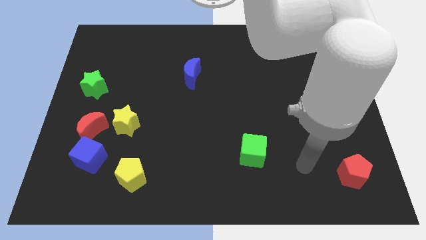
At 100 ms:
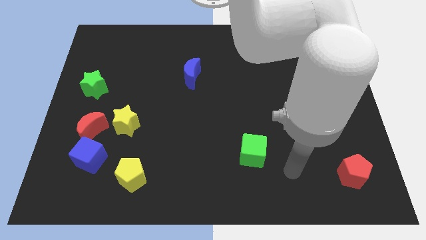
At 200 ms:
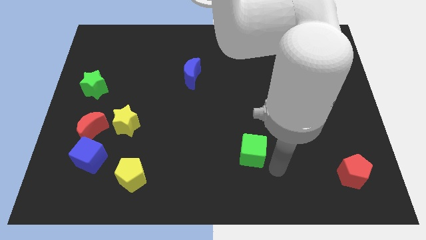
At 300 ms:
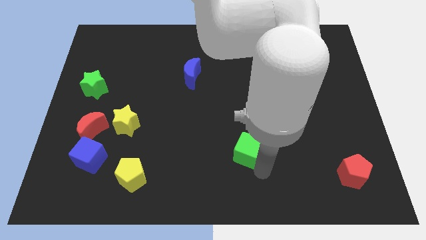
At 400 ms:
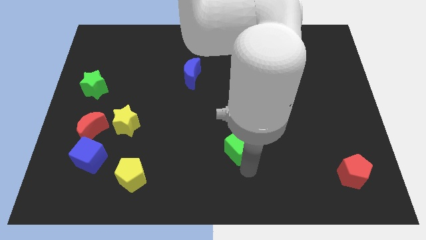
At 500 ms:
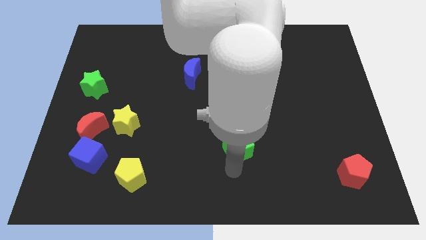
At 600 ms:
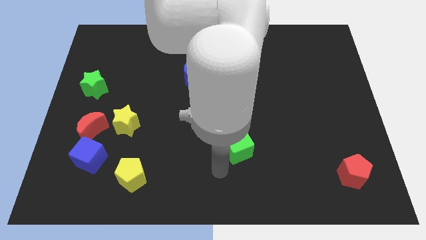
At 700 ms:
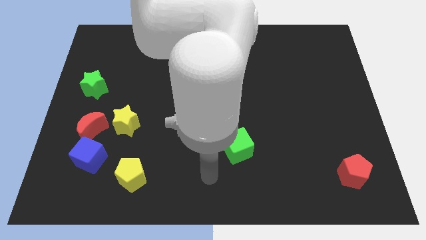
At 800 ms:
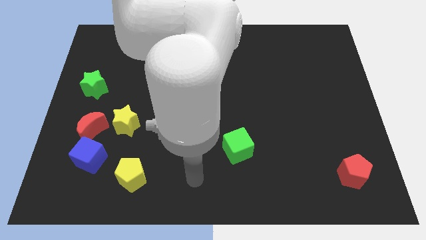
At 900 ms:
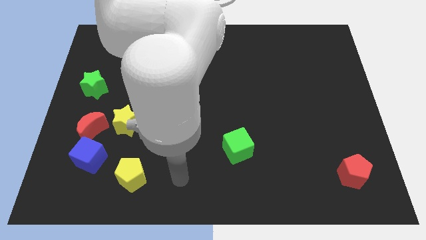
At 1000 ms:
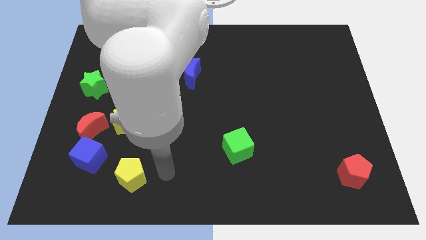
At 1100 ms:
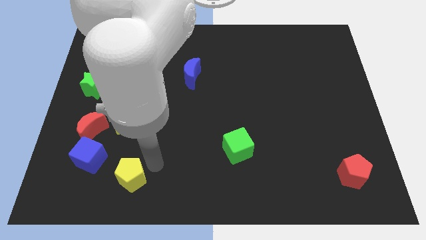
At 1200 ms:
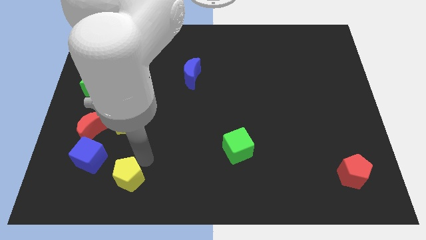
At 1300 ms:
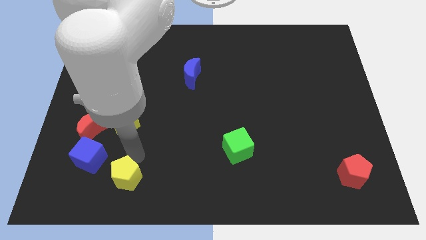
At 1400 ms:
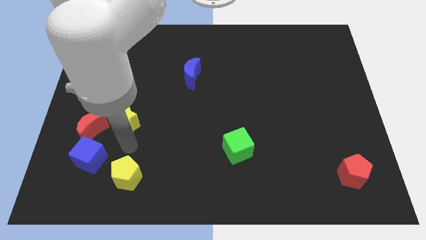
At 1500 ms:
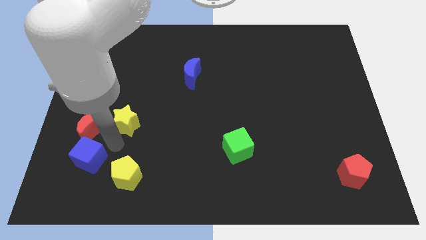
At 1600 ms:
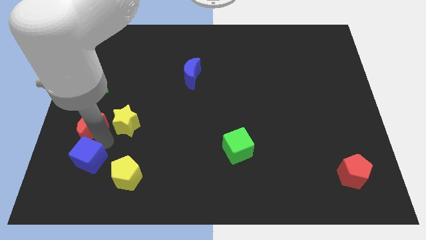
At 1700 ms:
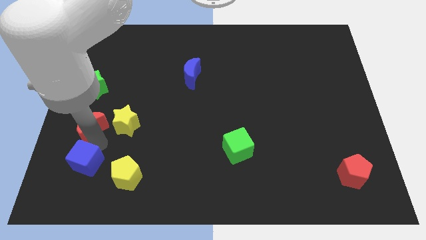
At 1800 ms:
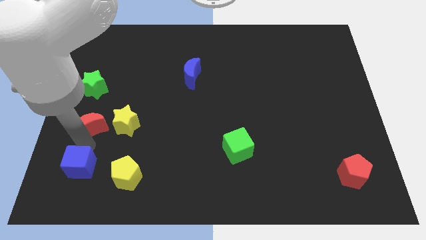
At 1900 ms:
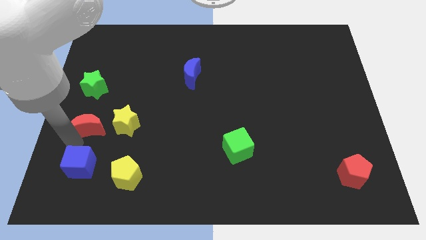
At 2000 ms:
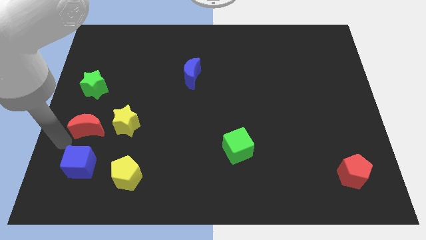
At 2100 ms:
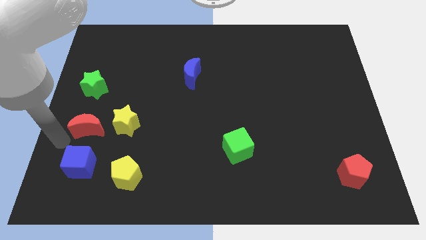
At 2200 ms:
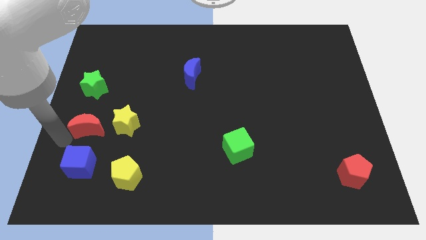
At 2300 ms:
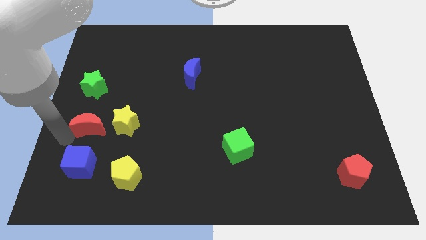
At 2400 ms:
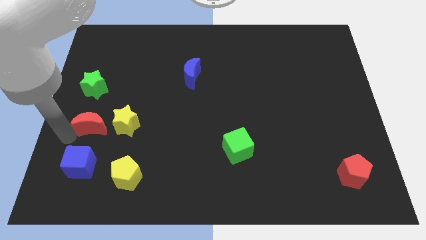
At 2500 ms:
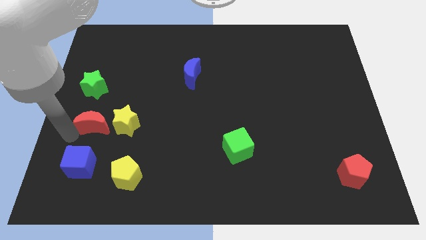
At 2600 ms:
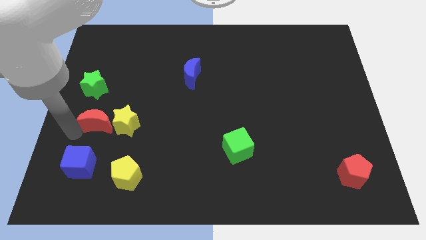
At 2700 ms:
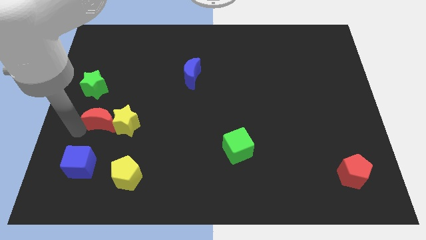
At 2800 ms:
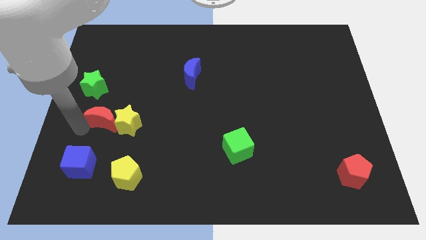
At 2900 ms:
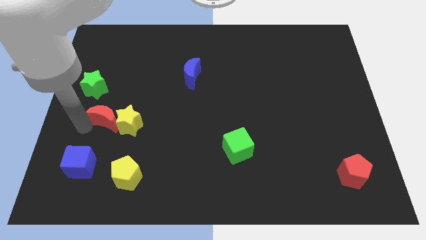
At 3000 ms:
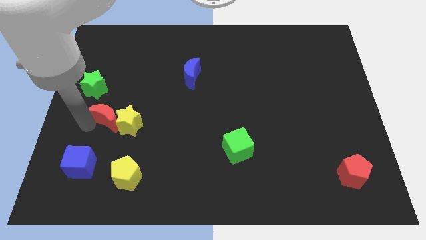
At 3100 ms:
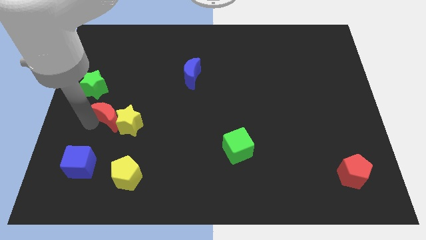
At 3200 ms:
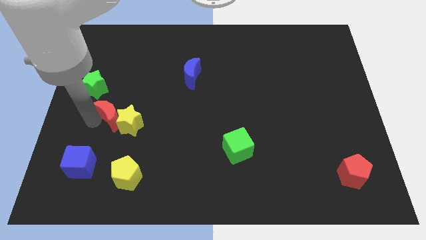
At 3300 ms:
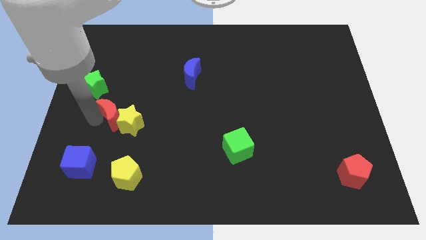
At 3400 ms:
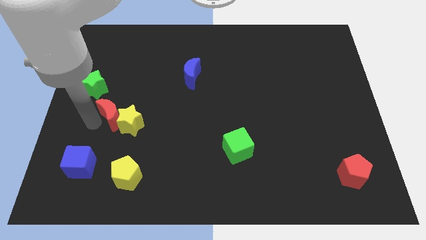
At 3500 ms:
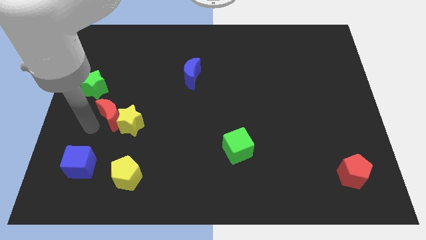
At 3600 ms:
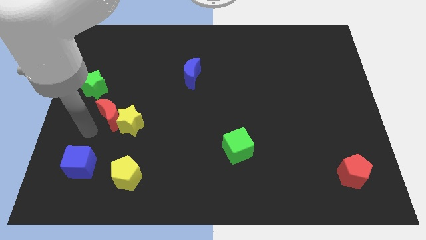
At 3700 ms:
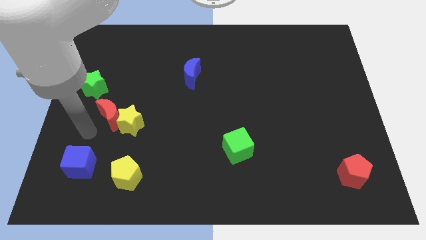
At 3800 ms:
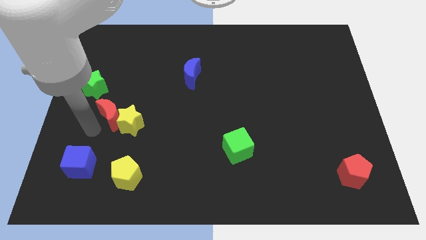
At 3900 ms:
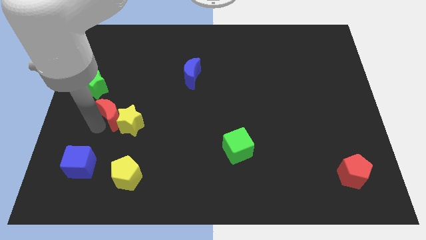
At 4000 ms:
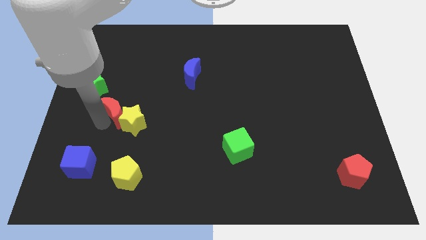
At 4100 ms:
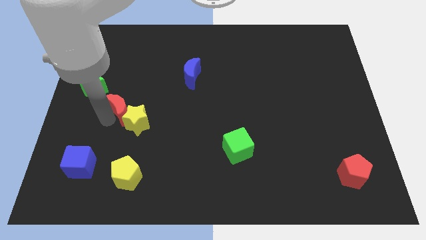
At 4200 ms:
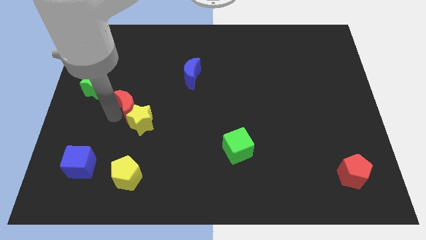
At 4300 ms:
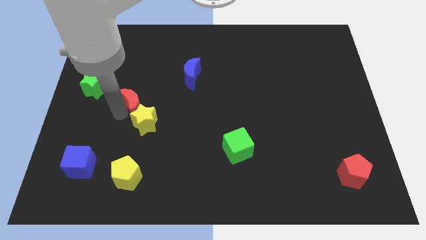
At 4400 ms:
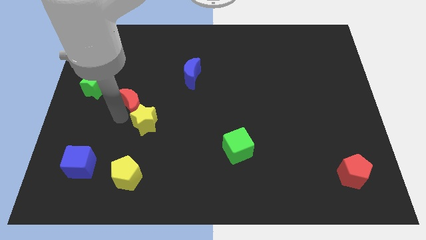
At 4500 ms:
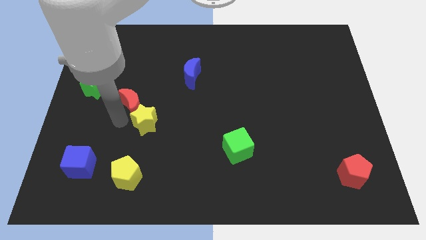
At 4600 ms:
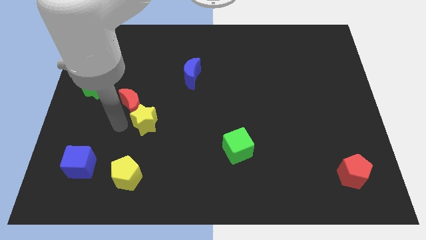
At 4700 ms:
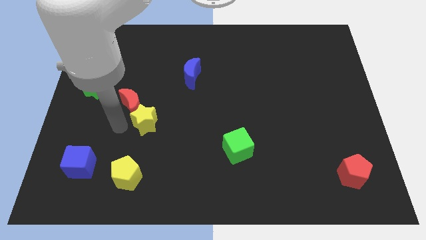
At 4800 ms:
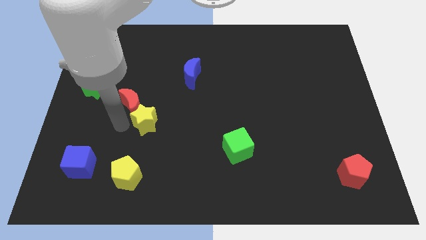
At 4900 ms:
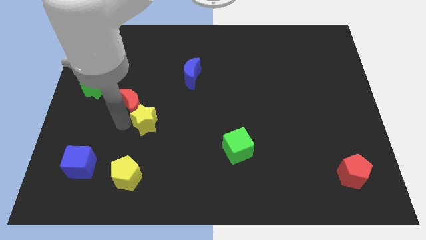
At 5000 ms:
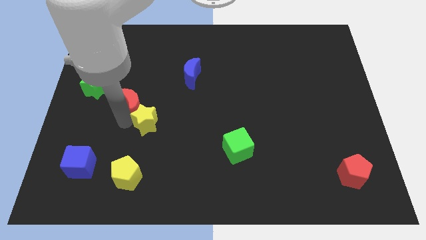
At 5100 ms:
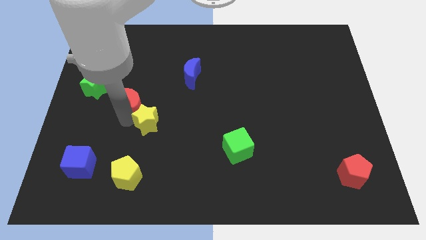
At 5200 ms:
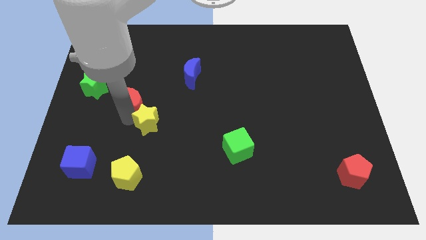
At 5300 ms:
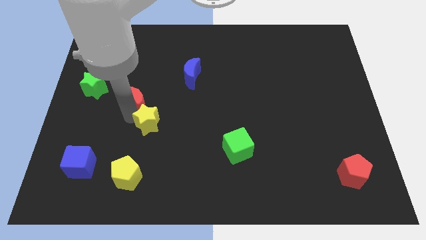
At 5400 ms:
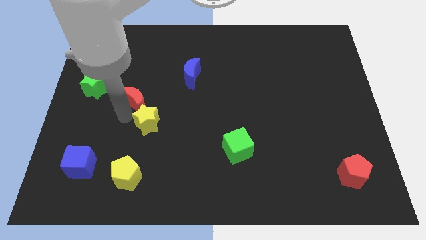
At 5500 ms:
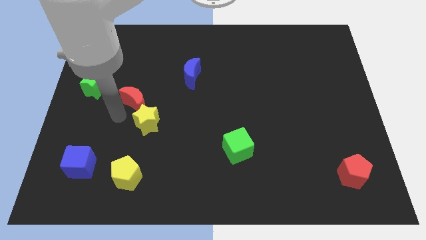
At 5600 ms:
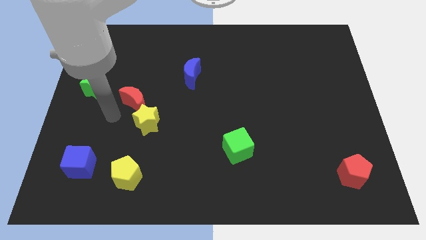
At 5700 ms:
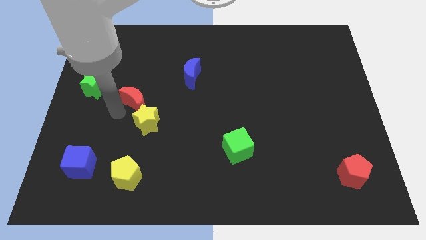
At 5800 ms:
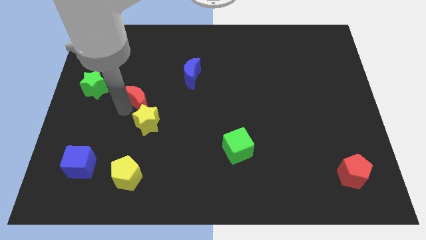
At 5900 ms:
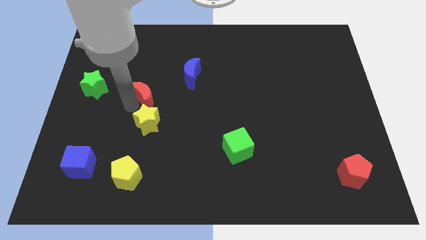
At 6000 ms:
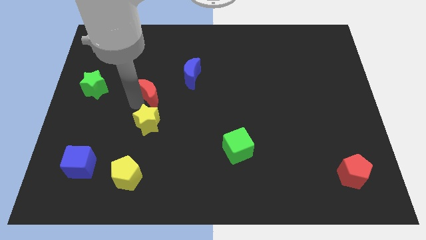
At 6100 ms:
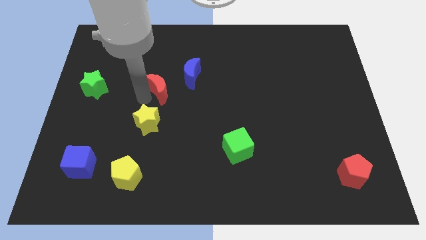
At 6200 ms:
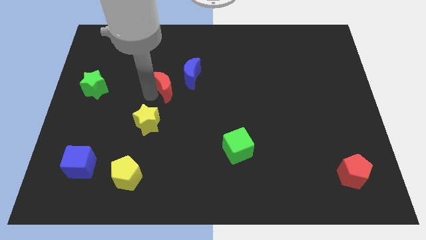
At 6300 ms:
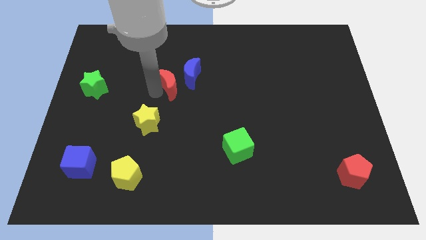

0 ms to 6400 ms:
put the red moon next to the blue moon

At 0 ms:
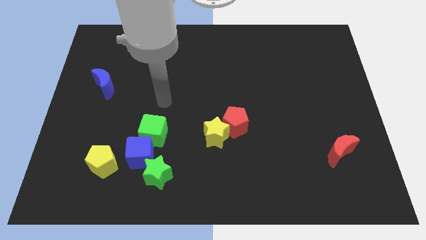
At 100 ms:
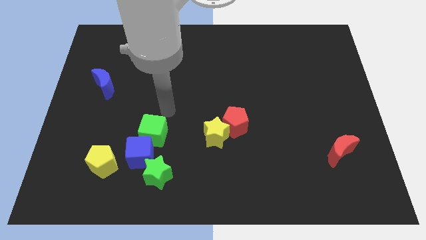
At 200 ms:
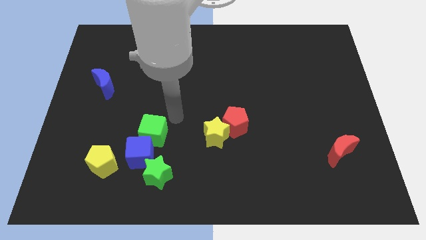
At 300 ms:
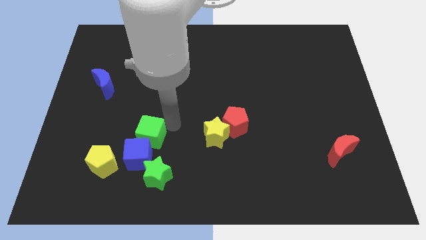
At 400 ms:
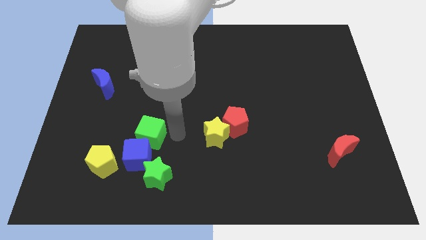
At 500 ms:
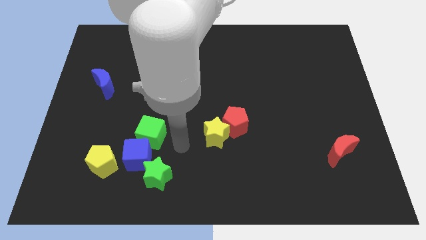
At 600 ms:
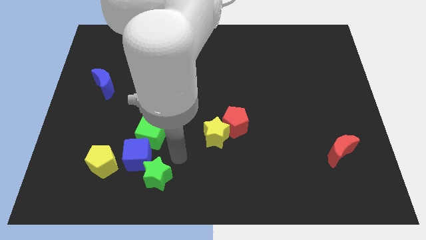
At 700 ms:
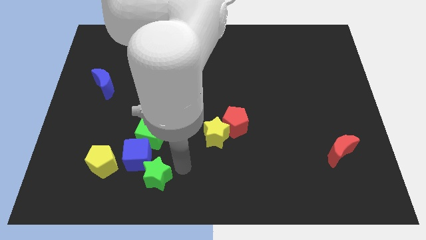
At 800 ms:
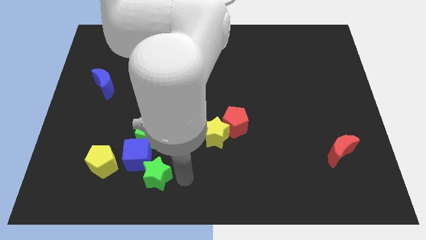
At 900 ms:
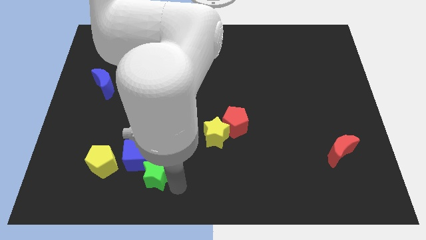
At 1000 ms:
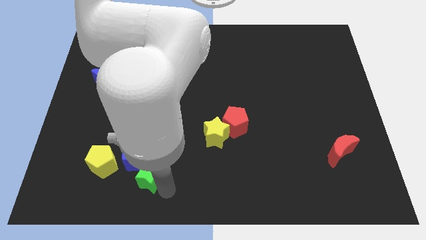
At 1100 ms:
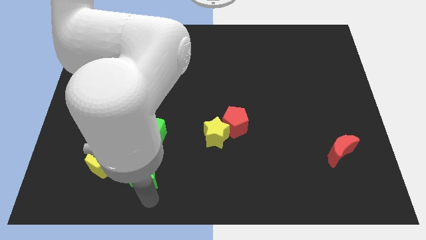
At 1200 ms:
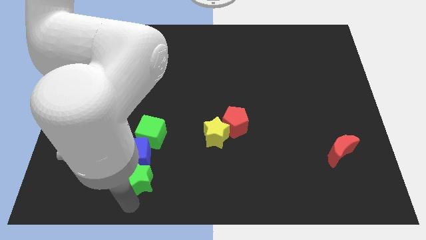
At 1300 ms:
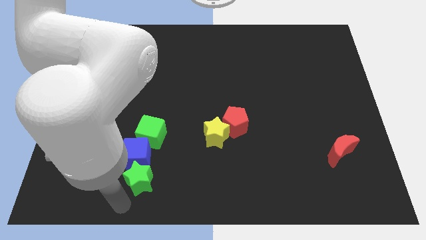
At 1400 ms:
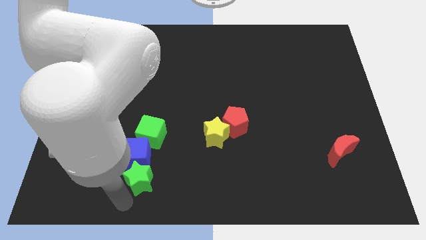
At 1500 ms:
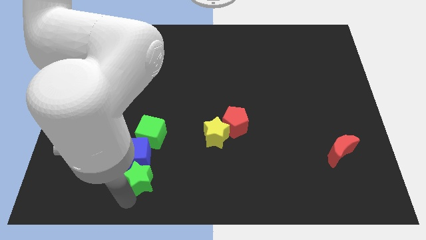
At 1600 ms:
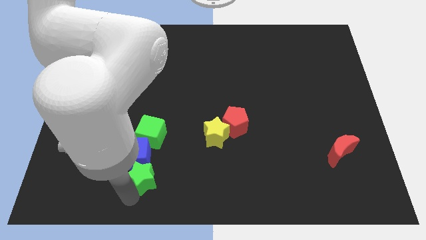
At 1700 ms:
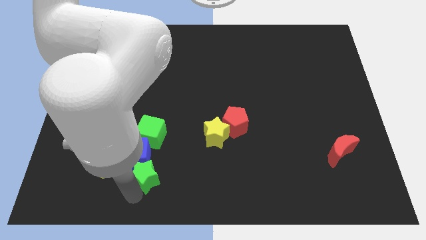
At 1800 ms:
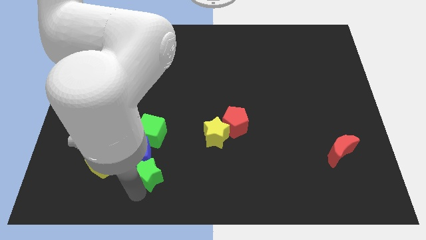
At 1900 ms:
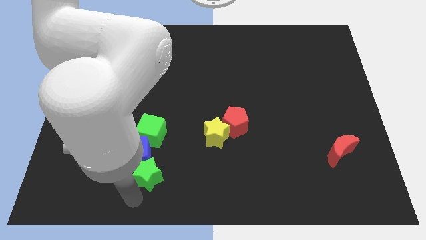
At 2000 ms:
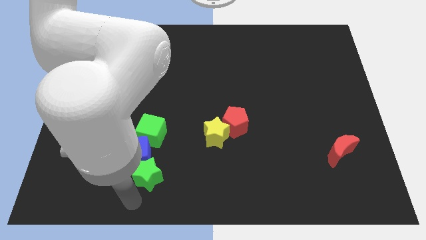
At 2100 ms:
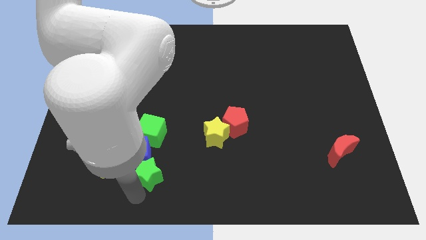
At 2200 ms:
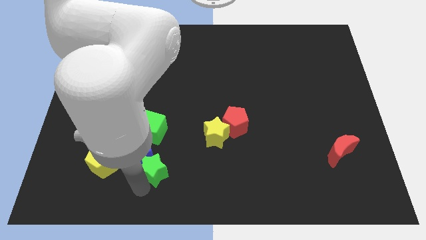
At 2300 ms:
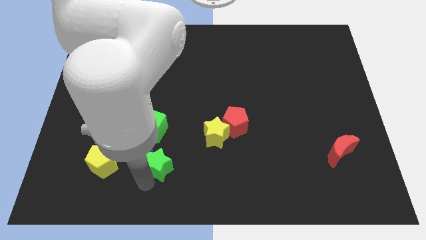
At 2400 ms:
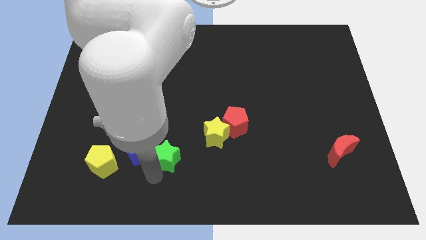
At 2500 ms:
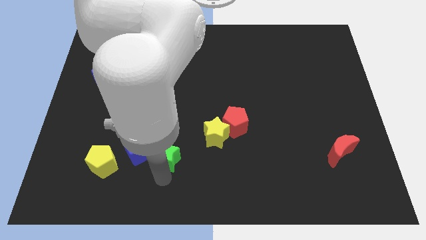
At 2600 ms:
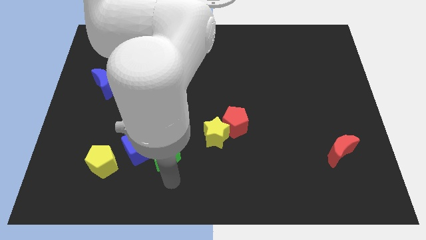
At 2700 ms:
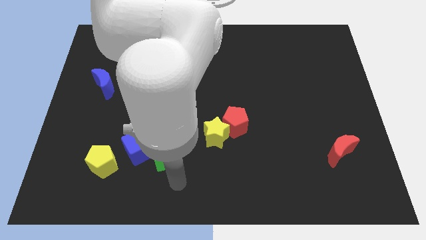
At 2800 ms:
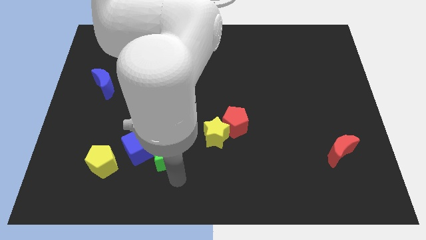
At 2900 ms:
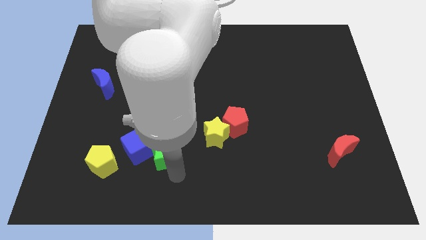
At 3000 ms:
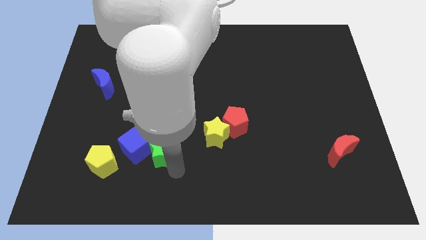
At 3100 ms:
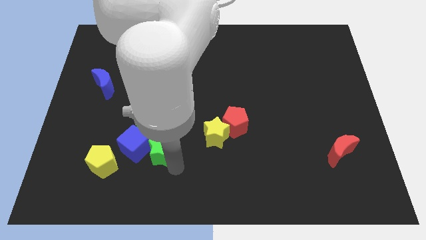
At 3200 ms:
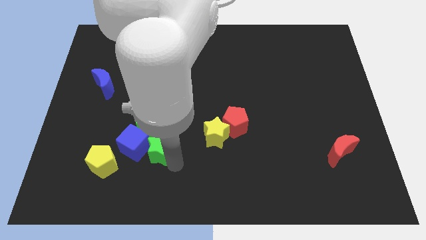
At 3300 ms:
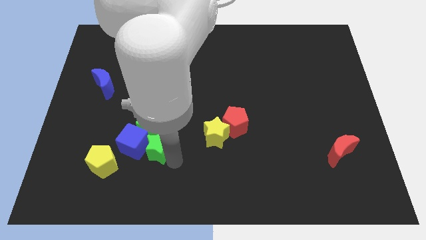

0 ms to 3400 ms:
slide the green star next to the green cube
